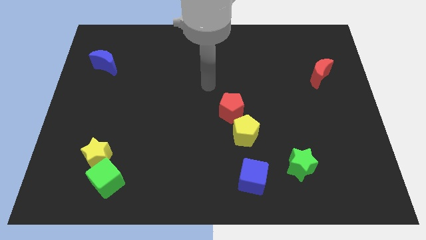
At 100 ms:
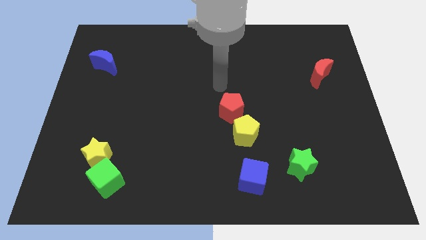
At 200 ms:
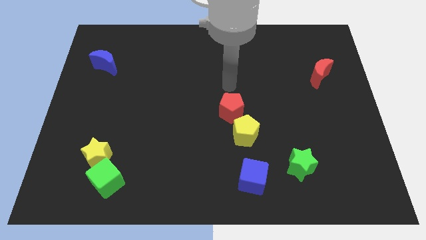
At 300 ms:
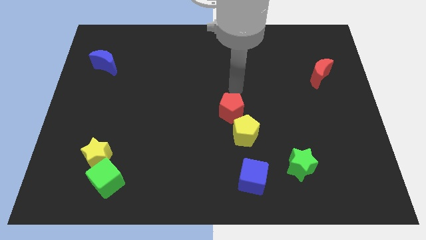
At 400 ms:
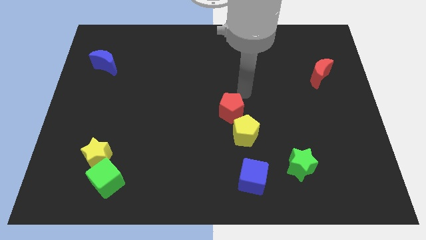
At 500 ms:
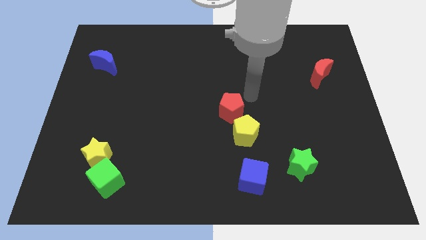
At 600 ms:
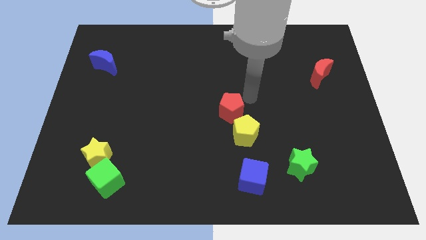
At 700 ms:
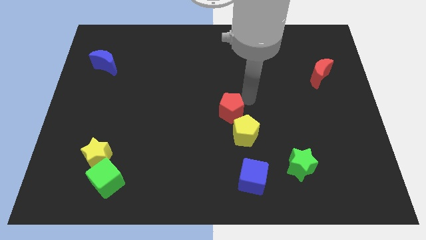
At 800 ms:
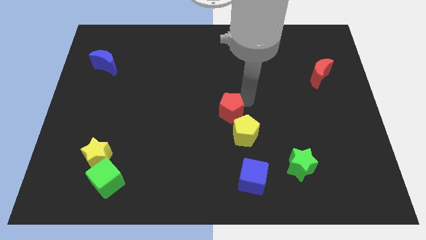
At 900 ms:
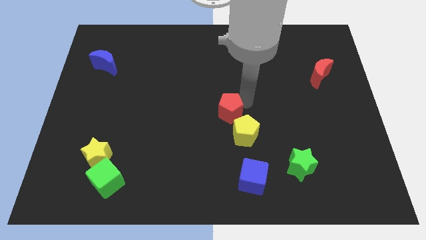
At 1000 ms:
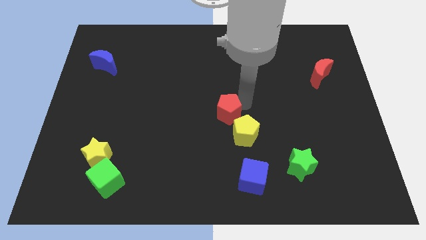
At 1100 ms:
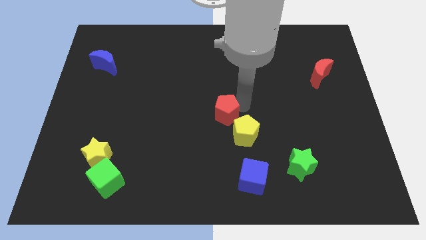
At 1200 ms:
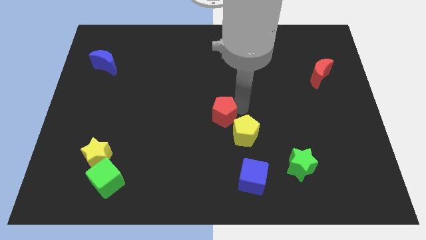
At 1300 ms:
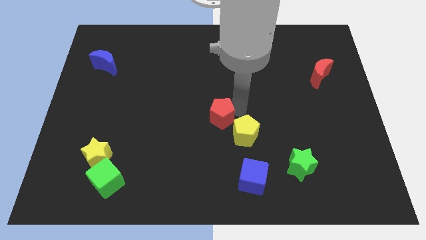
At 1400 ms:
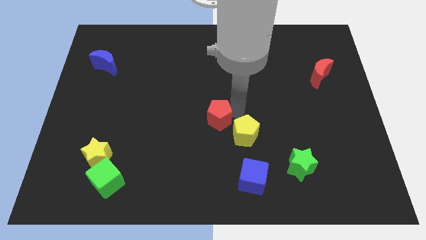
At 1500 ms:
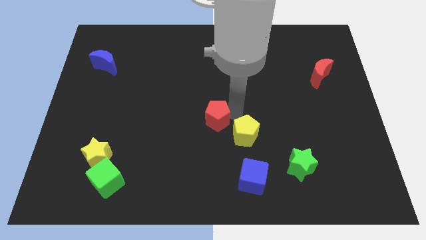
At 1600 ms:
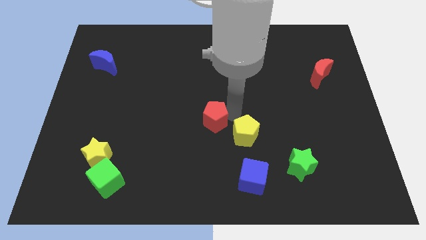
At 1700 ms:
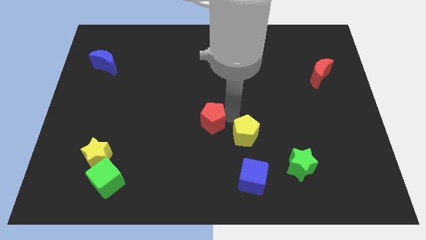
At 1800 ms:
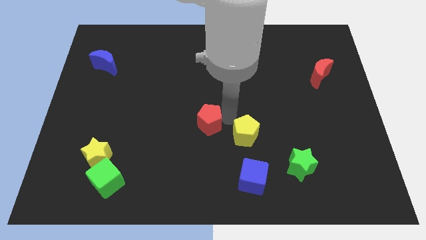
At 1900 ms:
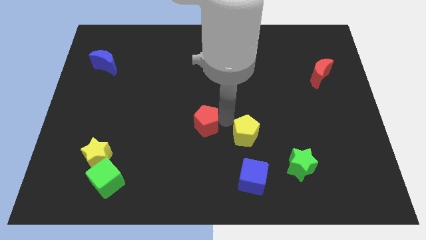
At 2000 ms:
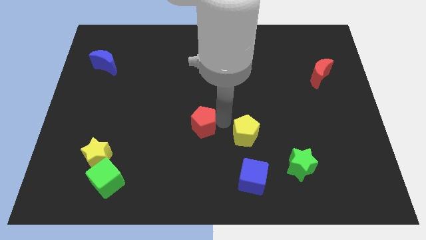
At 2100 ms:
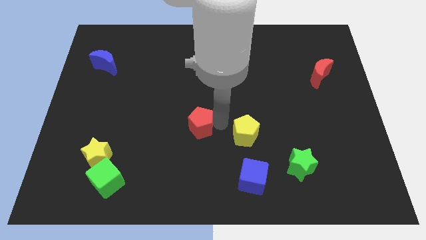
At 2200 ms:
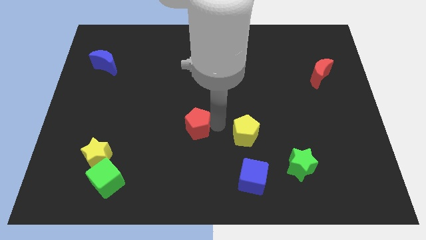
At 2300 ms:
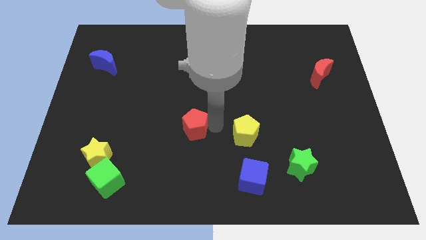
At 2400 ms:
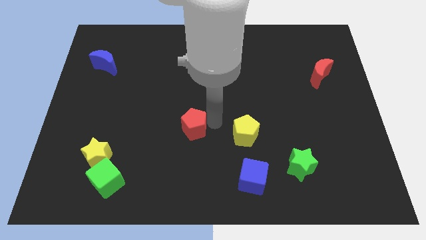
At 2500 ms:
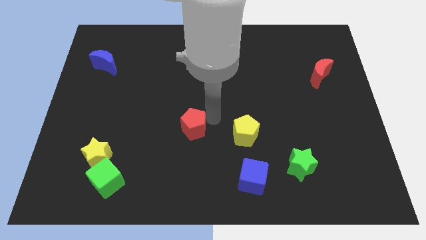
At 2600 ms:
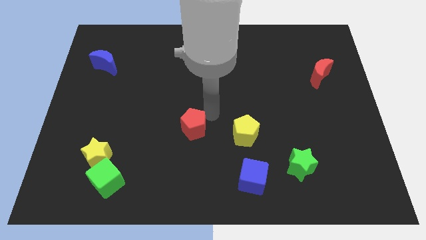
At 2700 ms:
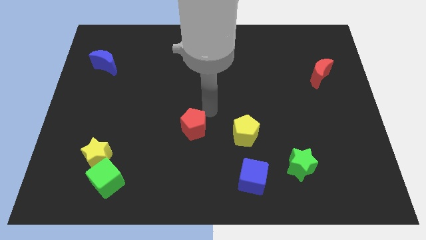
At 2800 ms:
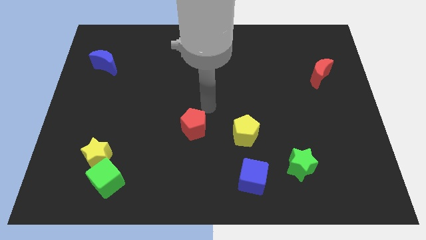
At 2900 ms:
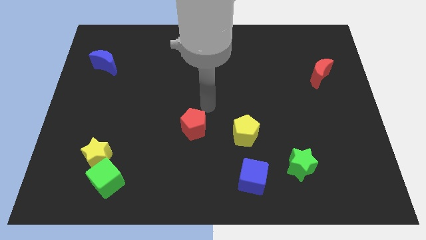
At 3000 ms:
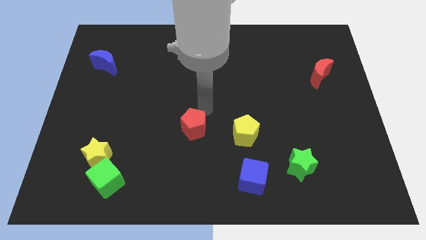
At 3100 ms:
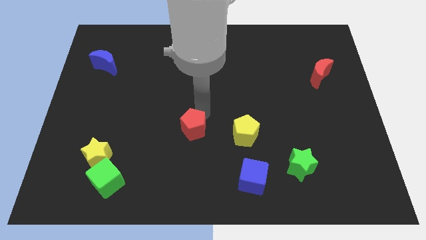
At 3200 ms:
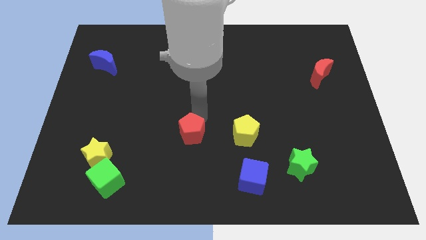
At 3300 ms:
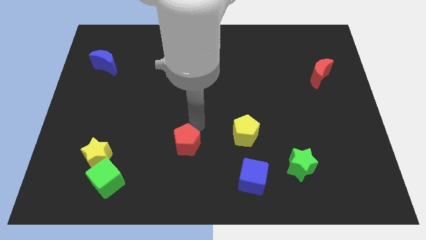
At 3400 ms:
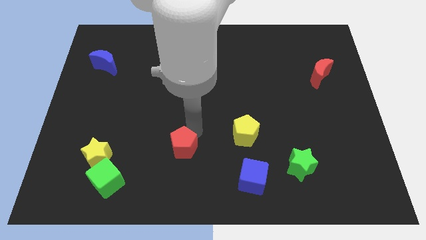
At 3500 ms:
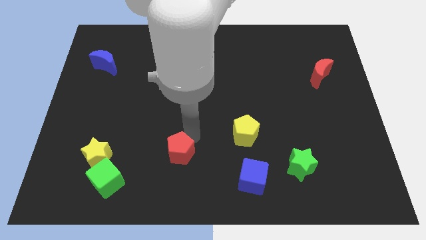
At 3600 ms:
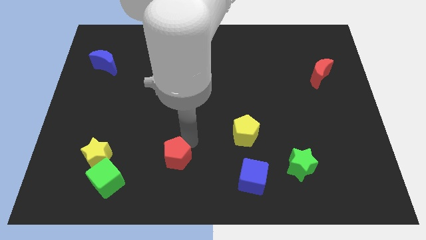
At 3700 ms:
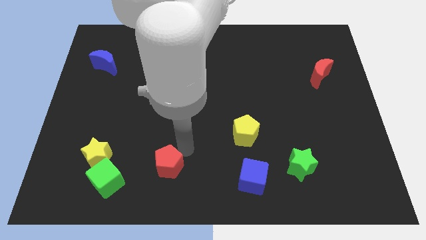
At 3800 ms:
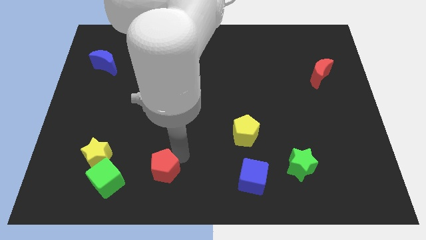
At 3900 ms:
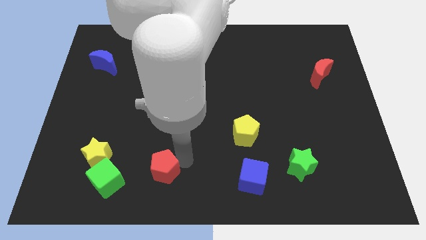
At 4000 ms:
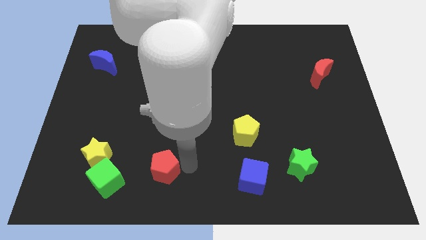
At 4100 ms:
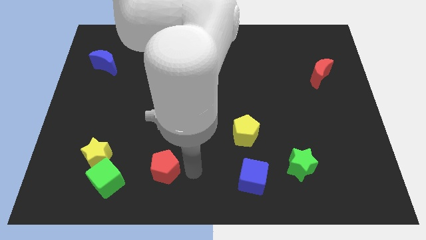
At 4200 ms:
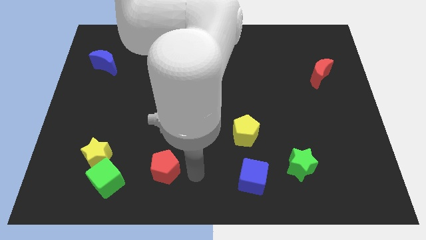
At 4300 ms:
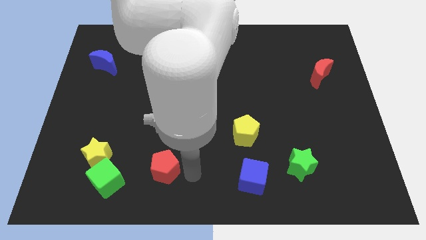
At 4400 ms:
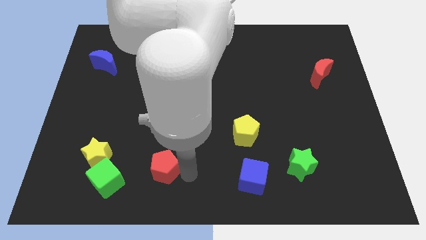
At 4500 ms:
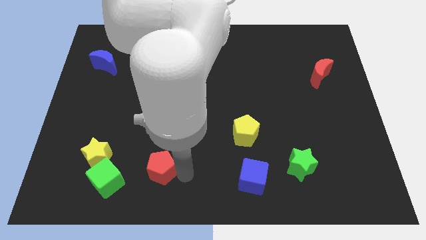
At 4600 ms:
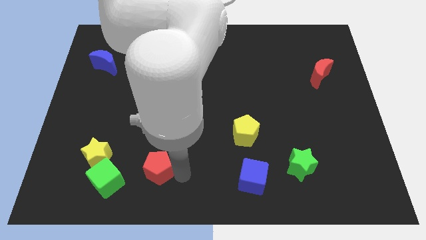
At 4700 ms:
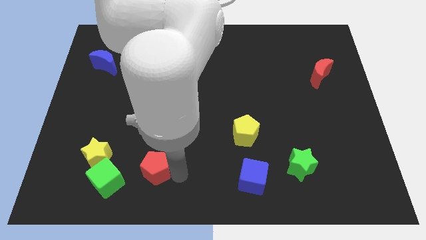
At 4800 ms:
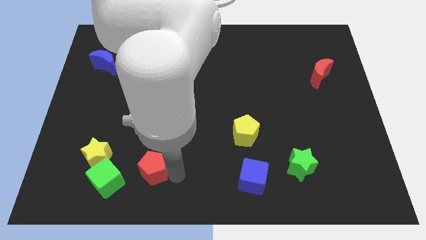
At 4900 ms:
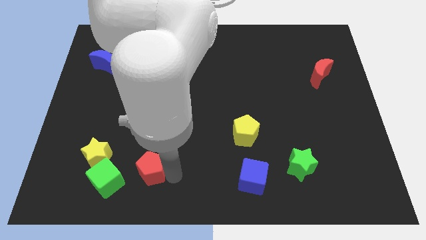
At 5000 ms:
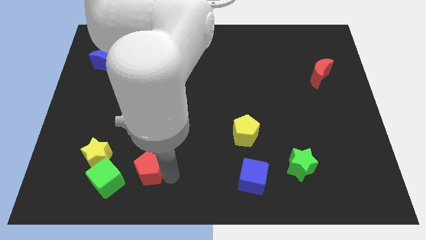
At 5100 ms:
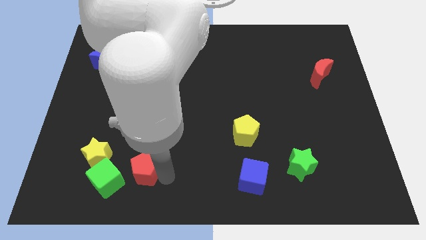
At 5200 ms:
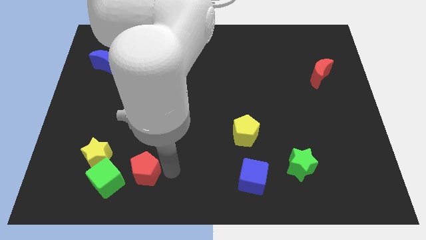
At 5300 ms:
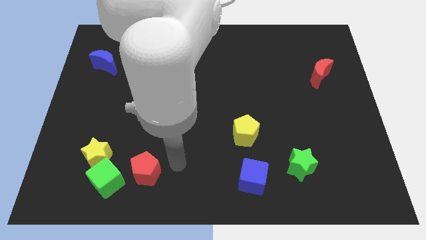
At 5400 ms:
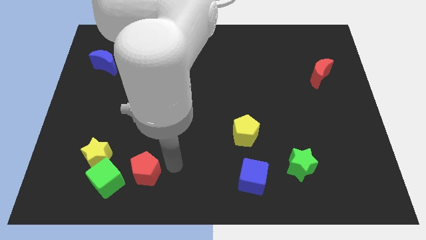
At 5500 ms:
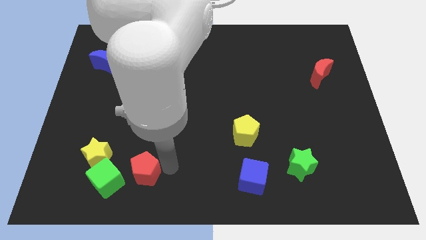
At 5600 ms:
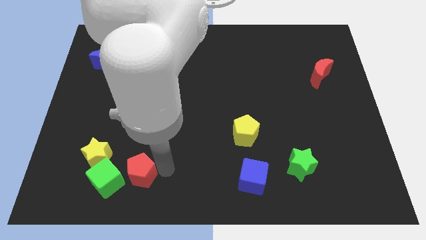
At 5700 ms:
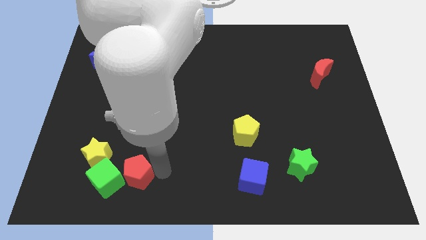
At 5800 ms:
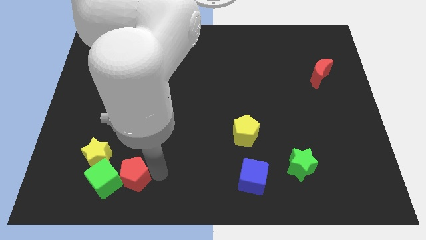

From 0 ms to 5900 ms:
push the red pentagon next to the green cube

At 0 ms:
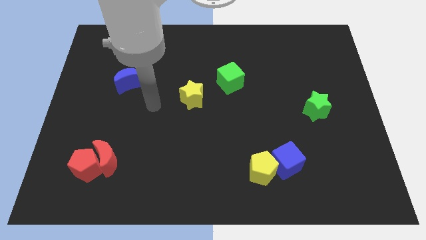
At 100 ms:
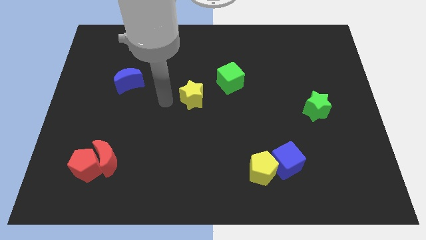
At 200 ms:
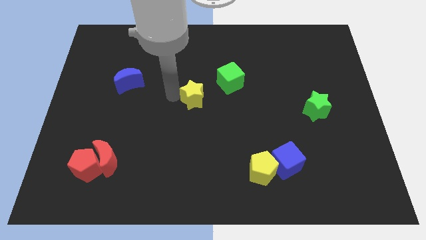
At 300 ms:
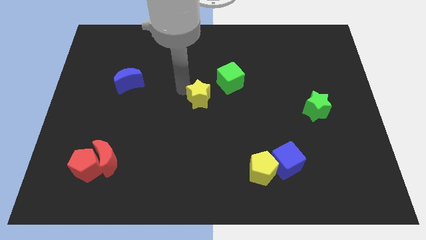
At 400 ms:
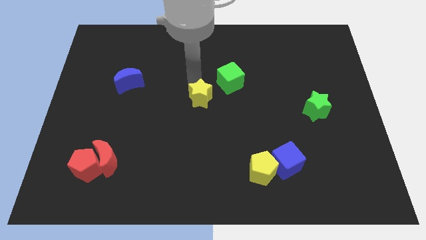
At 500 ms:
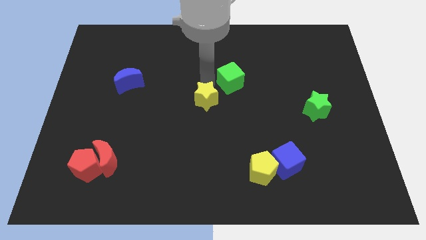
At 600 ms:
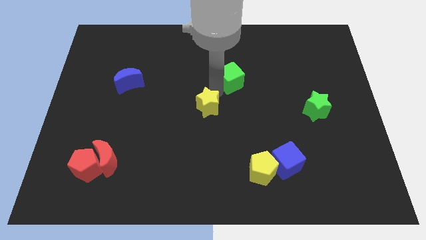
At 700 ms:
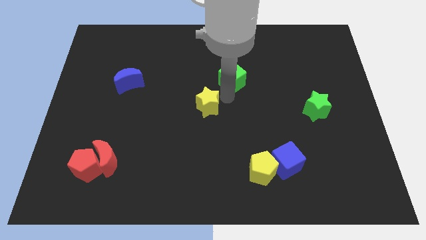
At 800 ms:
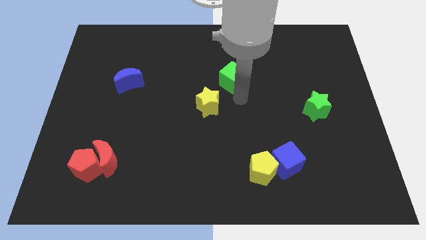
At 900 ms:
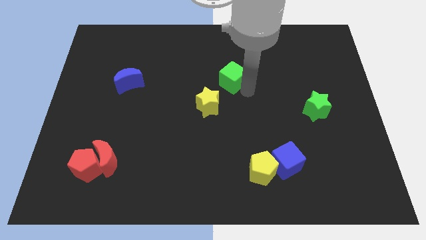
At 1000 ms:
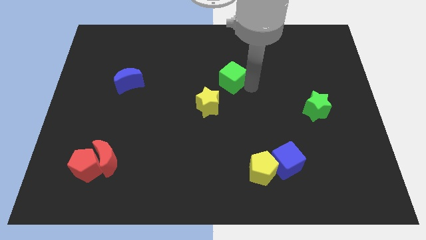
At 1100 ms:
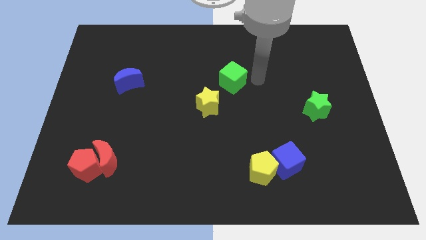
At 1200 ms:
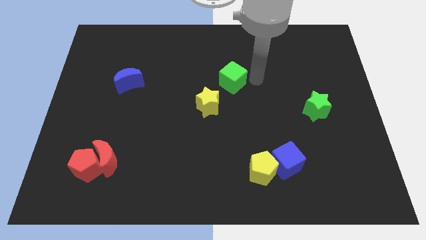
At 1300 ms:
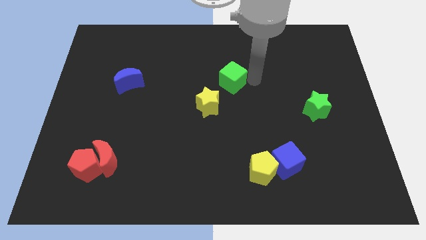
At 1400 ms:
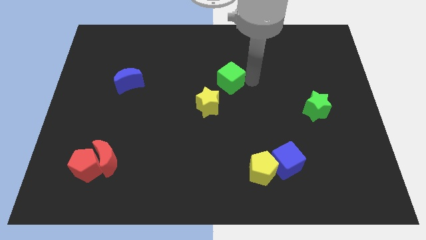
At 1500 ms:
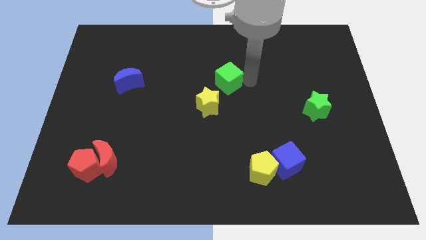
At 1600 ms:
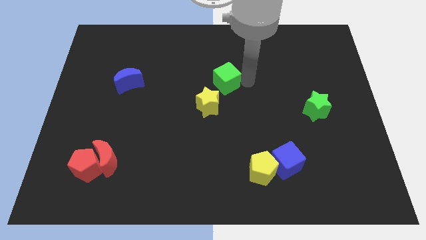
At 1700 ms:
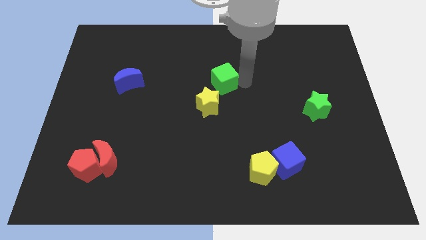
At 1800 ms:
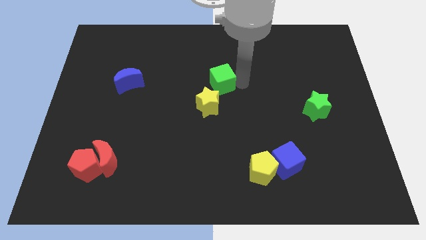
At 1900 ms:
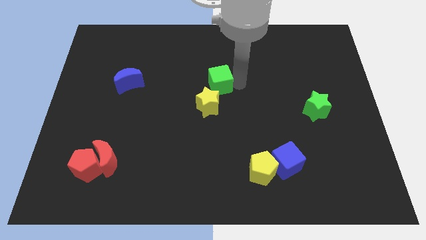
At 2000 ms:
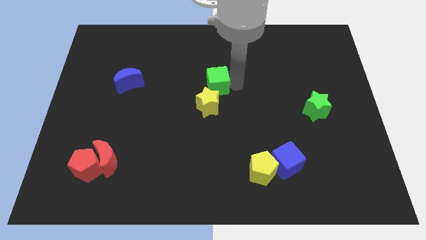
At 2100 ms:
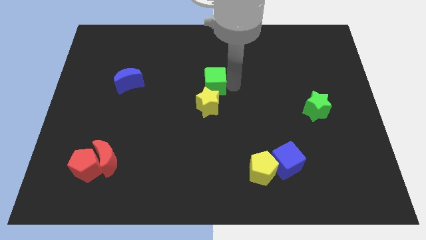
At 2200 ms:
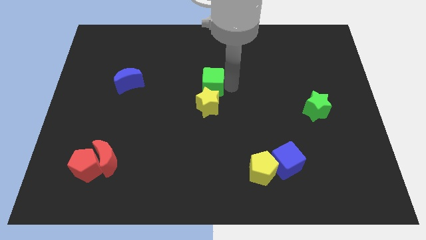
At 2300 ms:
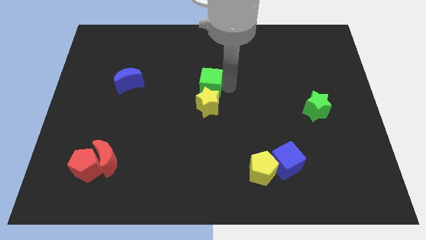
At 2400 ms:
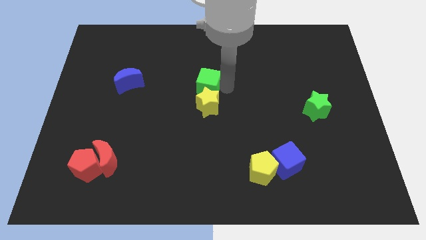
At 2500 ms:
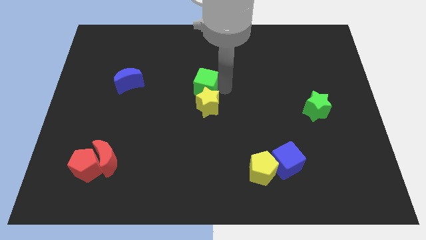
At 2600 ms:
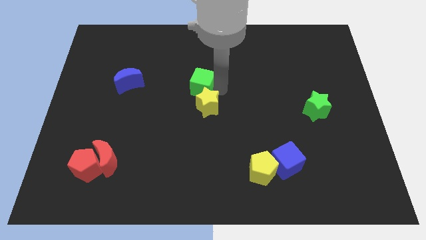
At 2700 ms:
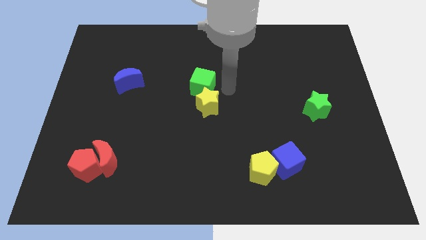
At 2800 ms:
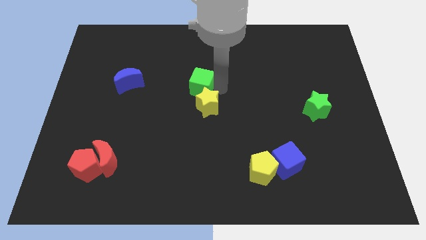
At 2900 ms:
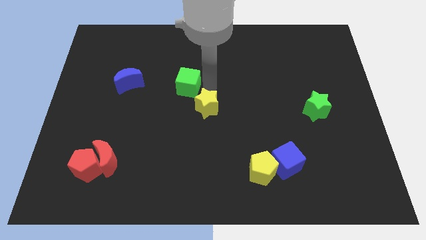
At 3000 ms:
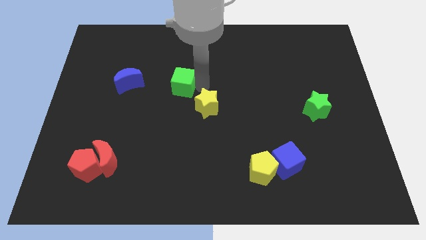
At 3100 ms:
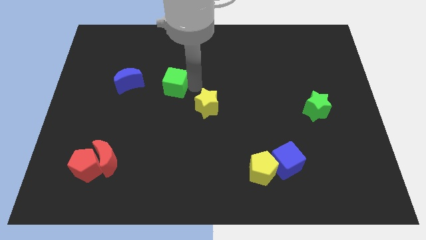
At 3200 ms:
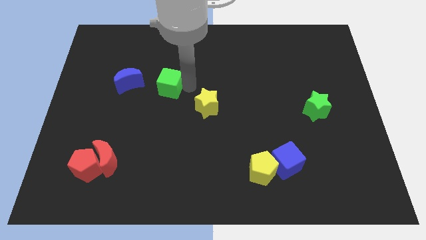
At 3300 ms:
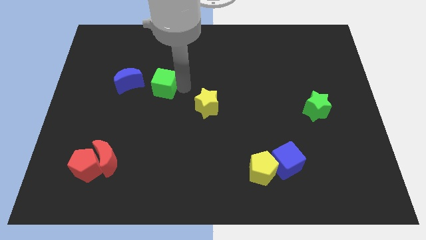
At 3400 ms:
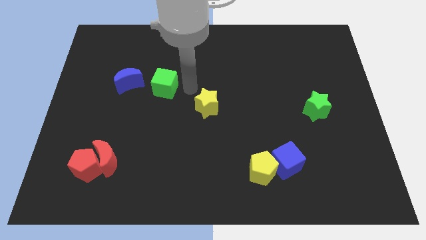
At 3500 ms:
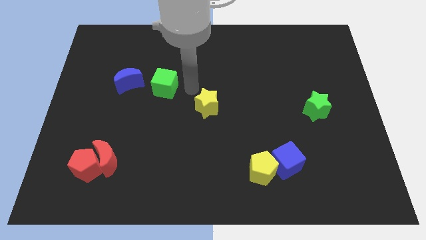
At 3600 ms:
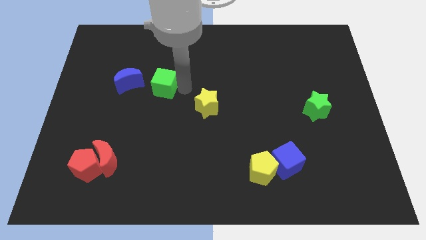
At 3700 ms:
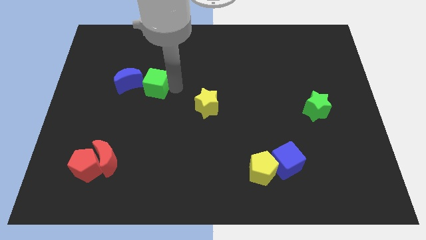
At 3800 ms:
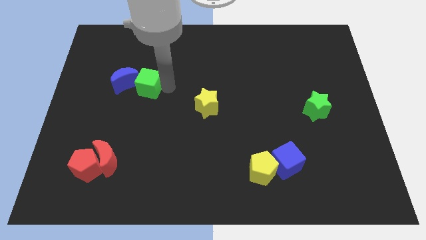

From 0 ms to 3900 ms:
slide the green cube to the blue moon
